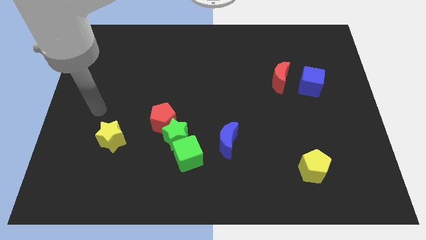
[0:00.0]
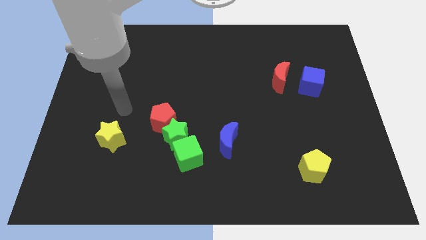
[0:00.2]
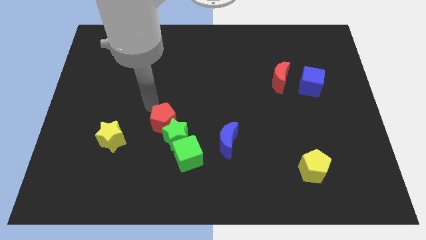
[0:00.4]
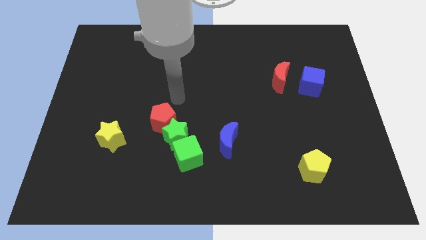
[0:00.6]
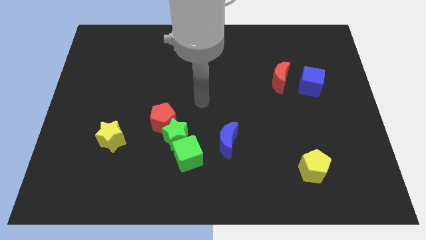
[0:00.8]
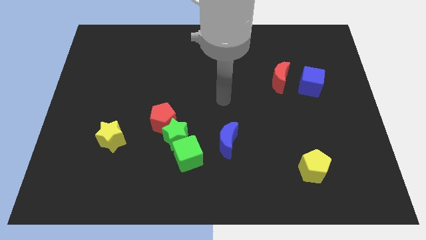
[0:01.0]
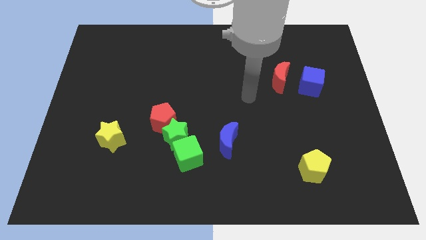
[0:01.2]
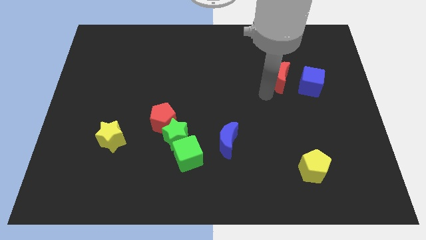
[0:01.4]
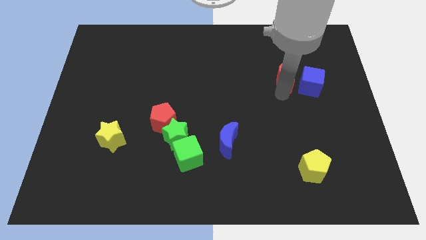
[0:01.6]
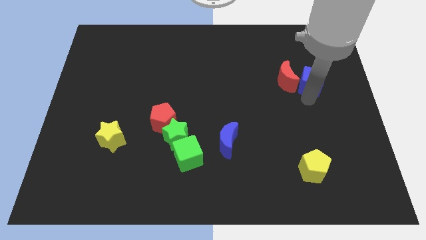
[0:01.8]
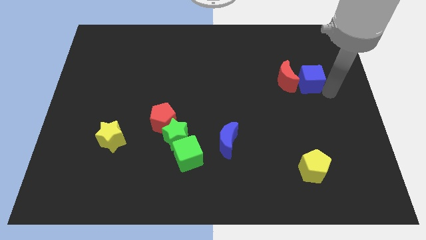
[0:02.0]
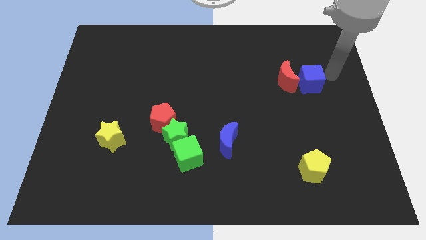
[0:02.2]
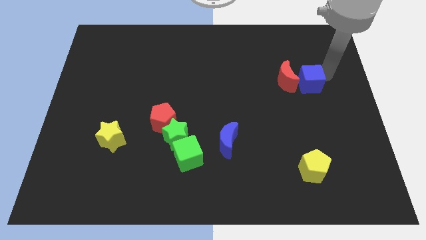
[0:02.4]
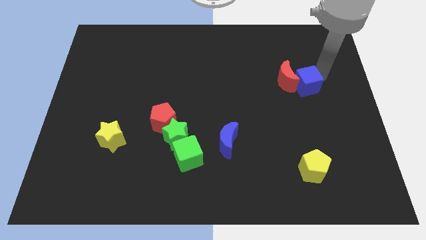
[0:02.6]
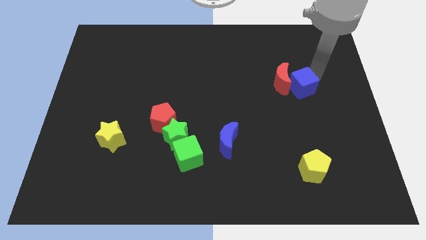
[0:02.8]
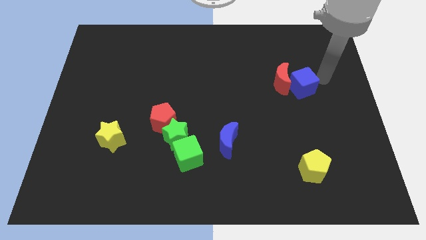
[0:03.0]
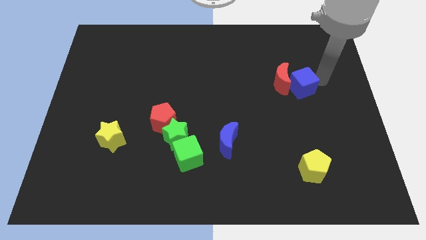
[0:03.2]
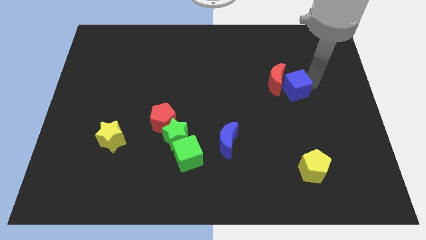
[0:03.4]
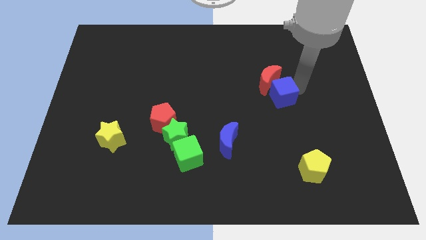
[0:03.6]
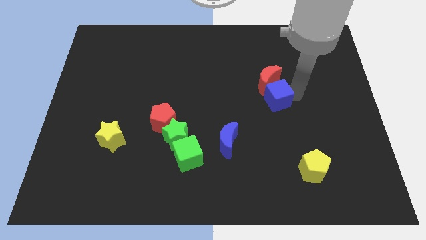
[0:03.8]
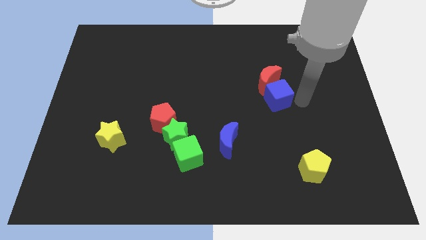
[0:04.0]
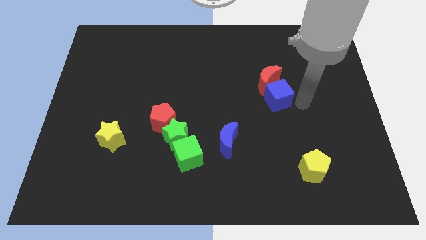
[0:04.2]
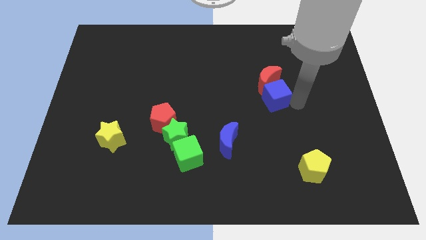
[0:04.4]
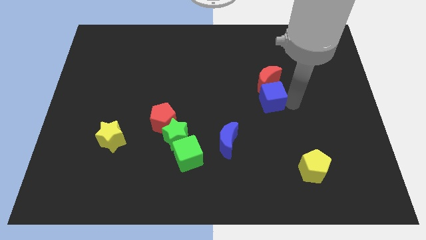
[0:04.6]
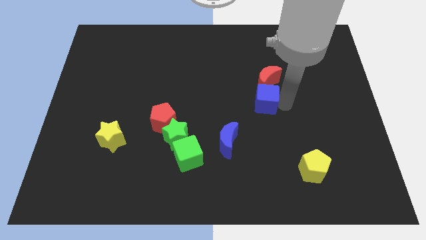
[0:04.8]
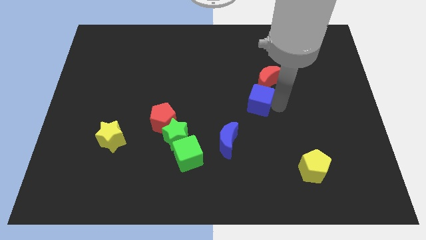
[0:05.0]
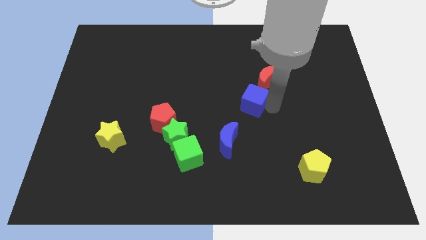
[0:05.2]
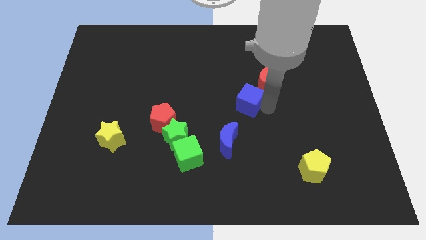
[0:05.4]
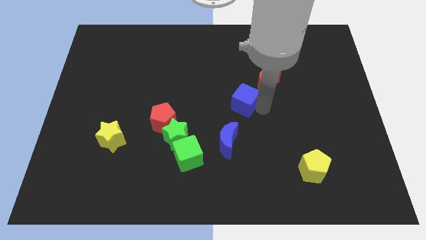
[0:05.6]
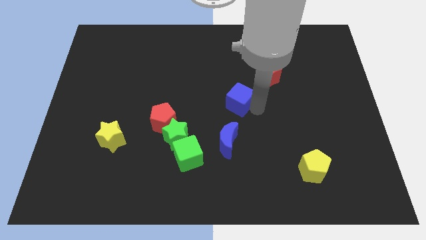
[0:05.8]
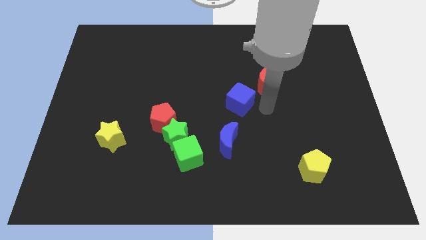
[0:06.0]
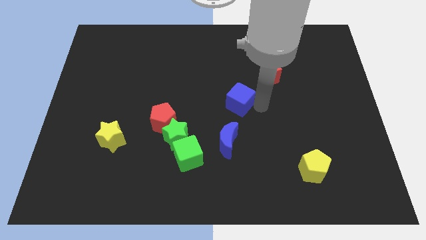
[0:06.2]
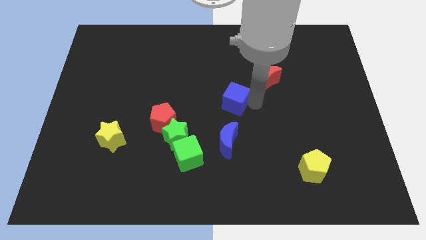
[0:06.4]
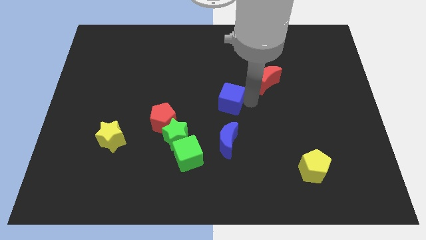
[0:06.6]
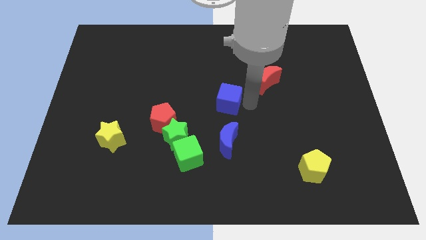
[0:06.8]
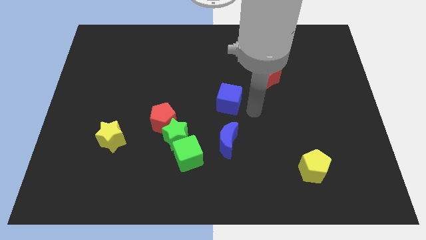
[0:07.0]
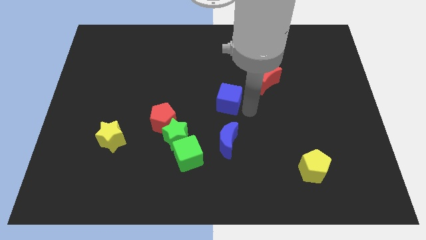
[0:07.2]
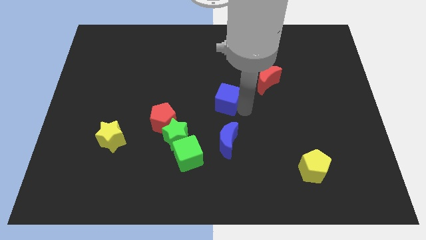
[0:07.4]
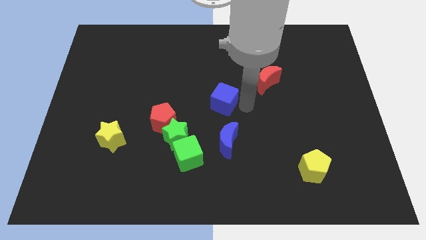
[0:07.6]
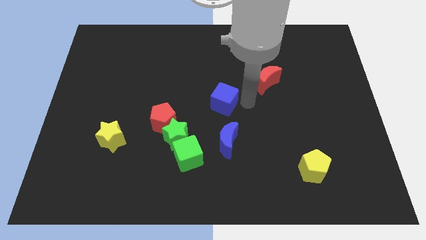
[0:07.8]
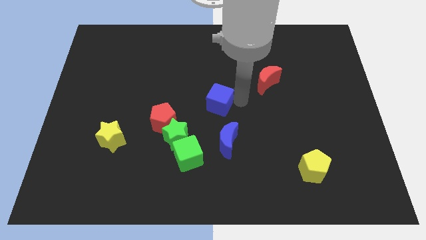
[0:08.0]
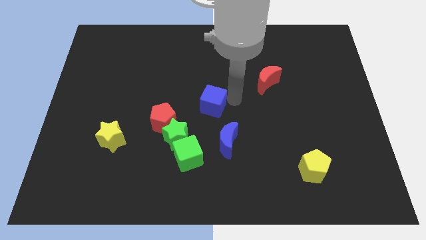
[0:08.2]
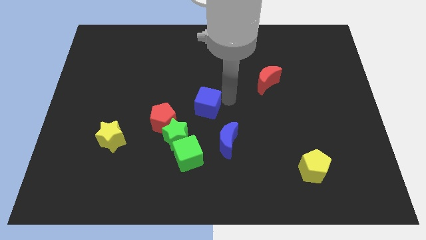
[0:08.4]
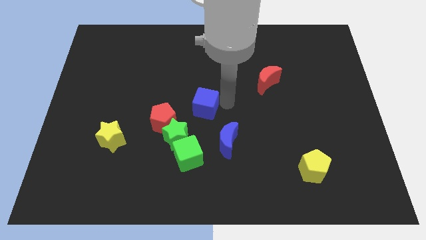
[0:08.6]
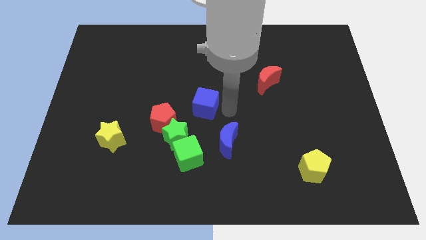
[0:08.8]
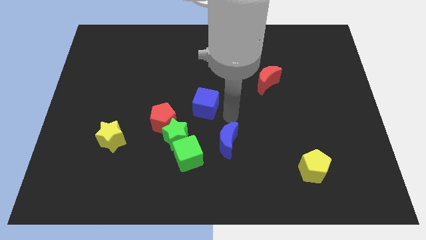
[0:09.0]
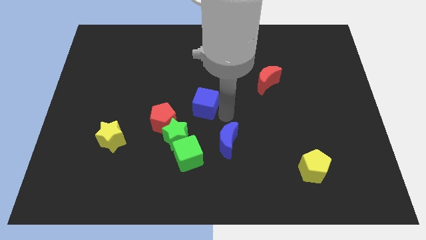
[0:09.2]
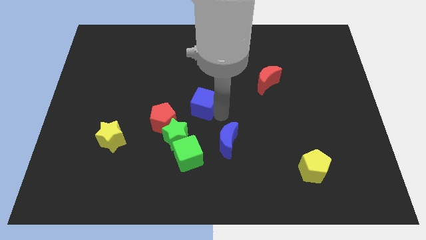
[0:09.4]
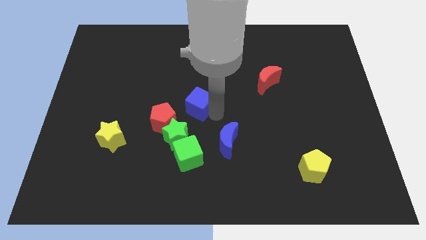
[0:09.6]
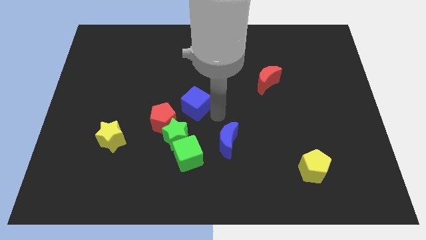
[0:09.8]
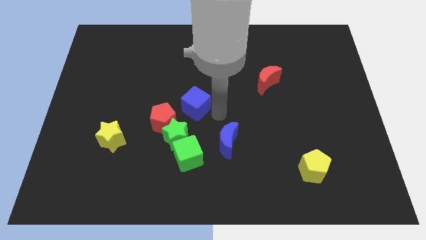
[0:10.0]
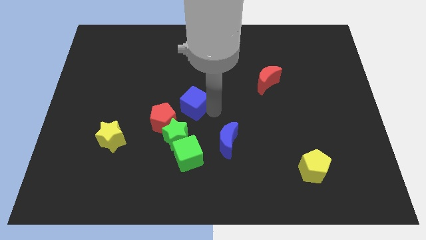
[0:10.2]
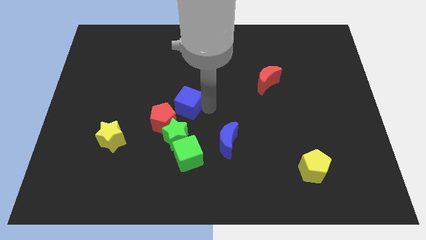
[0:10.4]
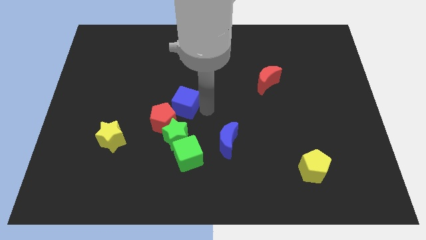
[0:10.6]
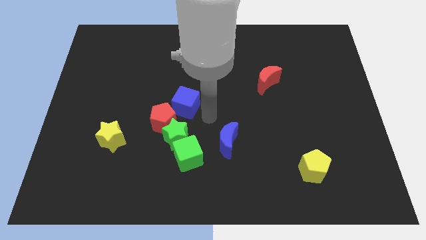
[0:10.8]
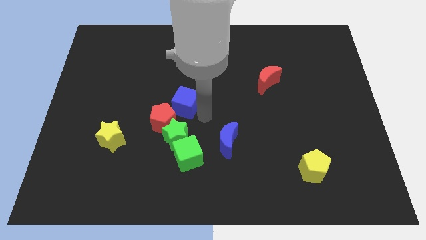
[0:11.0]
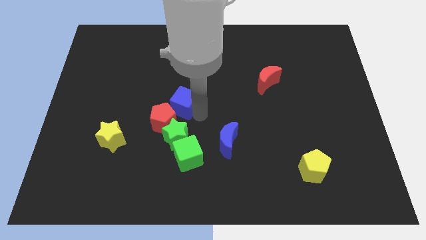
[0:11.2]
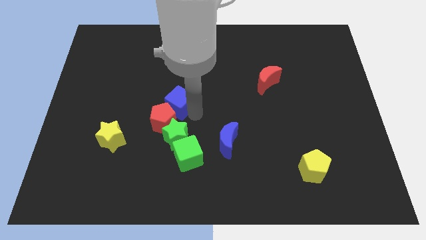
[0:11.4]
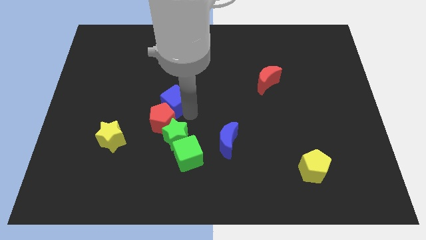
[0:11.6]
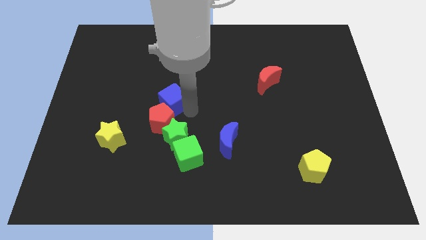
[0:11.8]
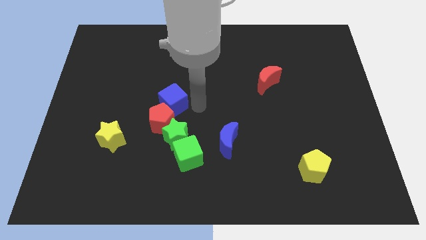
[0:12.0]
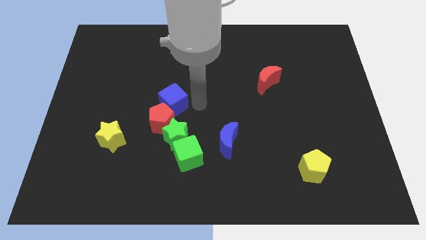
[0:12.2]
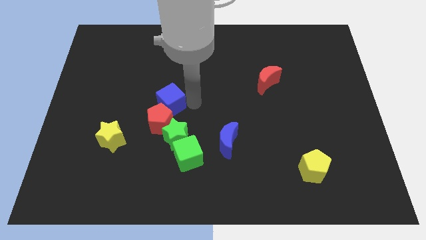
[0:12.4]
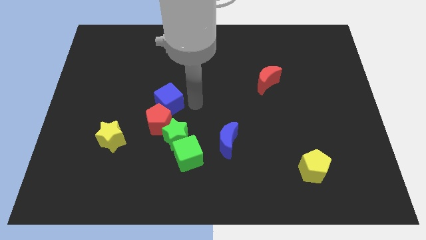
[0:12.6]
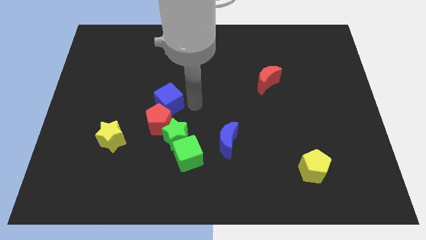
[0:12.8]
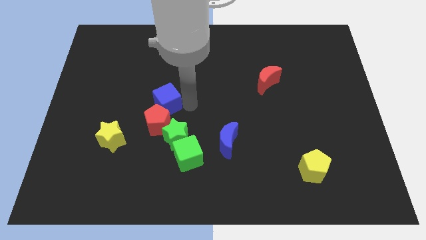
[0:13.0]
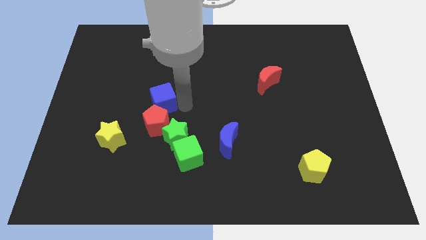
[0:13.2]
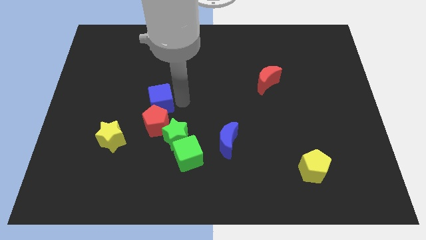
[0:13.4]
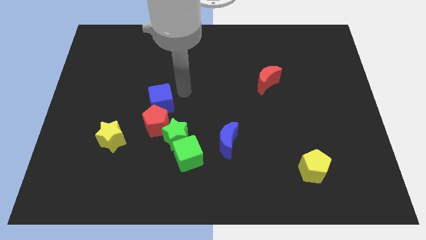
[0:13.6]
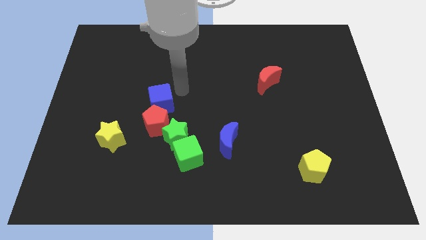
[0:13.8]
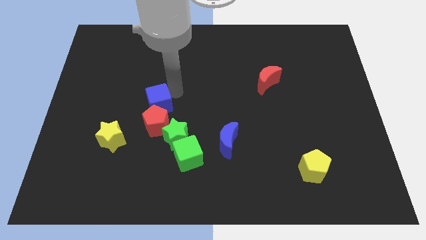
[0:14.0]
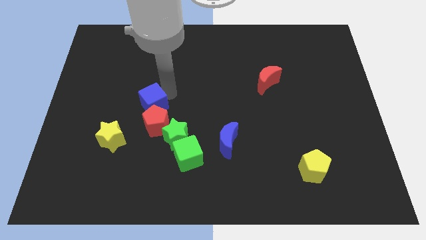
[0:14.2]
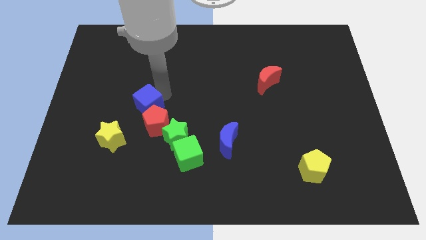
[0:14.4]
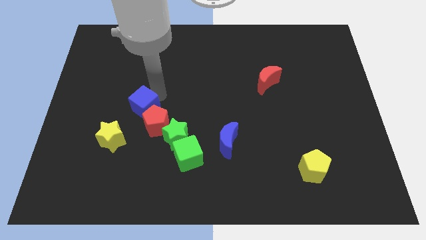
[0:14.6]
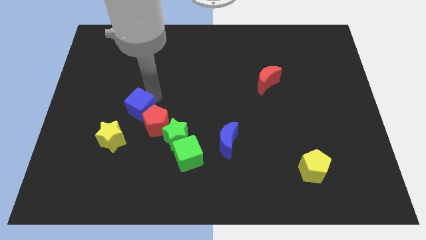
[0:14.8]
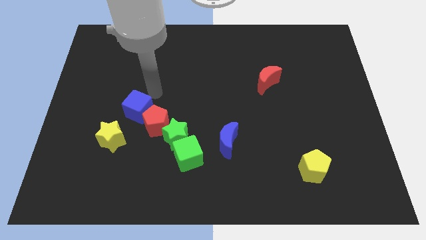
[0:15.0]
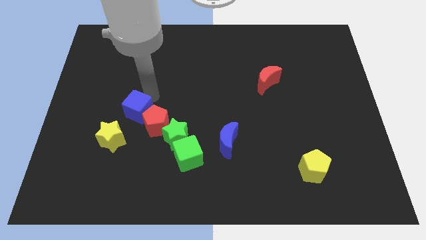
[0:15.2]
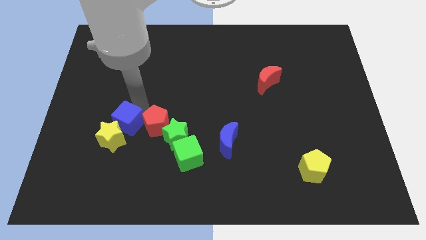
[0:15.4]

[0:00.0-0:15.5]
put the blue cube to the yellow star
